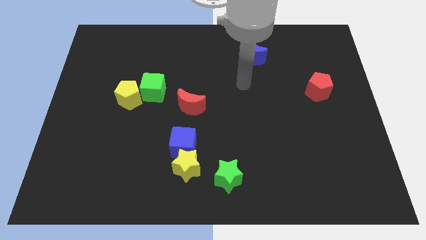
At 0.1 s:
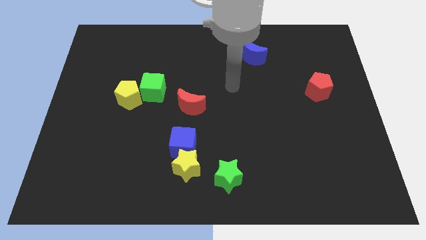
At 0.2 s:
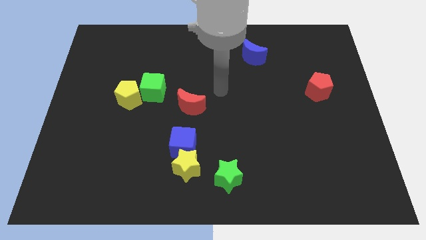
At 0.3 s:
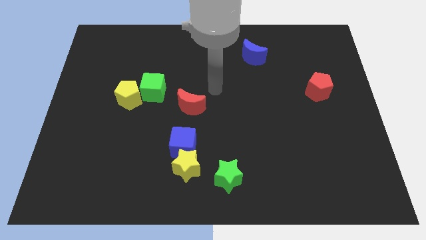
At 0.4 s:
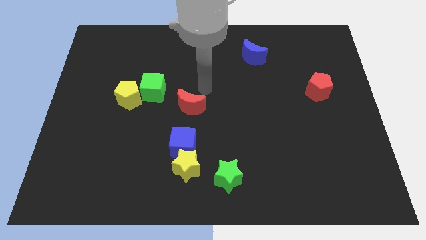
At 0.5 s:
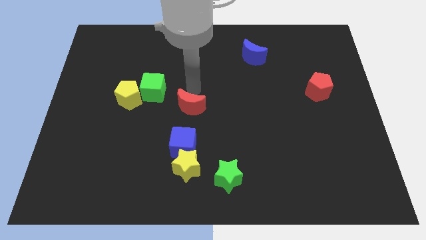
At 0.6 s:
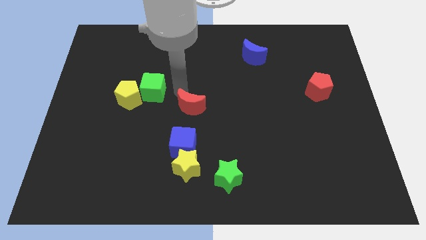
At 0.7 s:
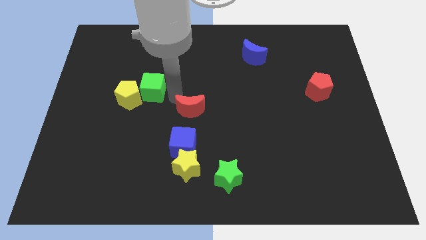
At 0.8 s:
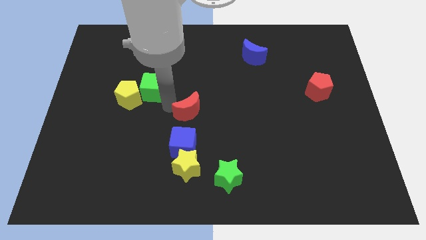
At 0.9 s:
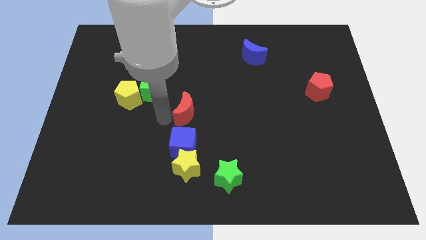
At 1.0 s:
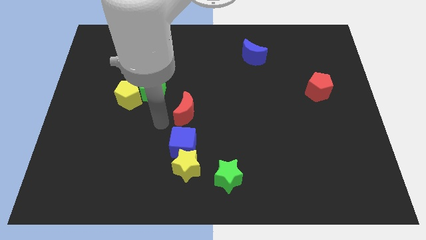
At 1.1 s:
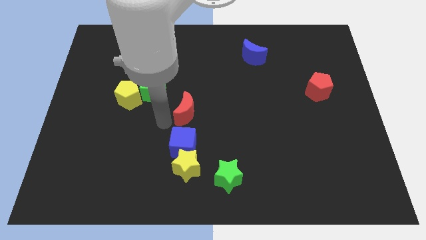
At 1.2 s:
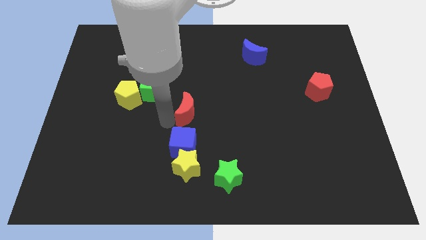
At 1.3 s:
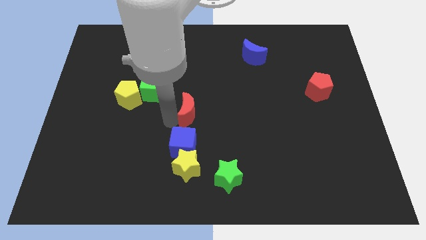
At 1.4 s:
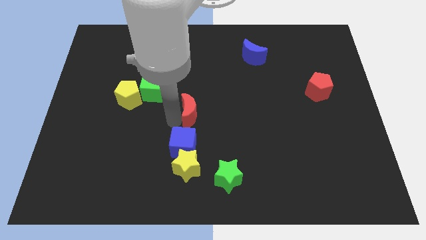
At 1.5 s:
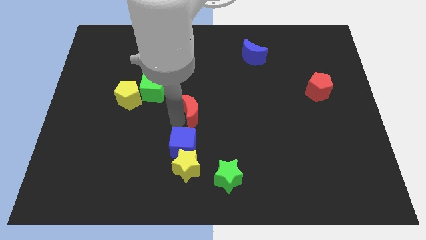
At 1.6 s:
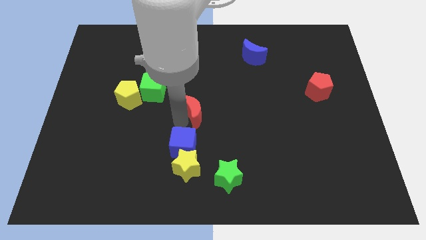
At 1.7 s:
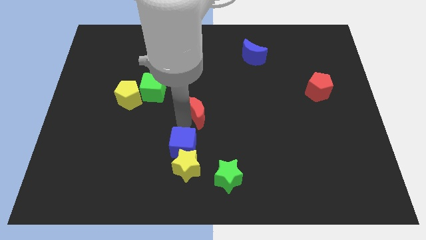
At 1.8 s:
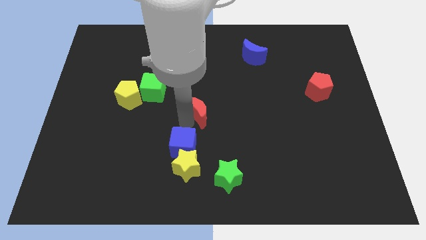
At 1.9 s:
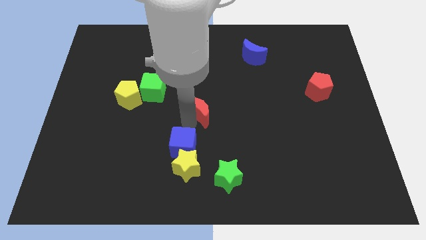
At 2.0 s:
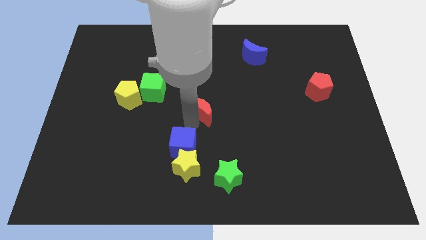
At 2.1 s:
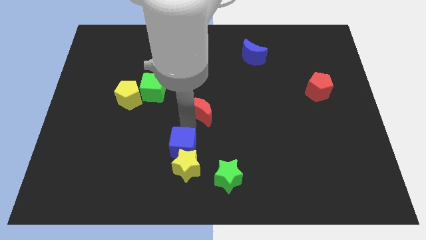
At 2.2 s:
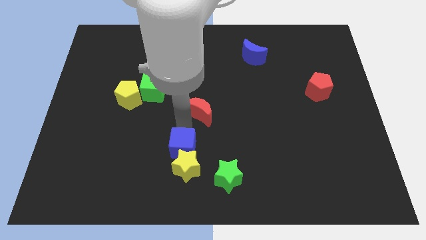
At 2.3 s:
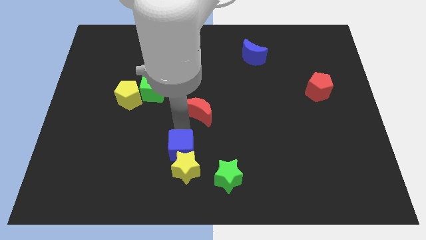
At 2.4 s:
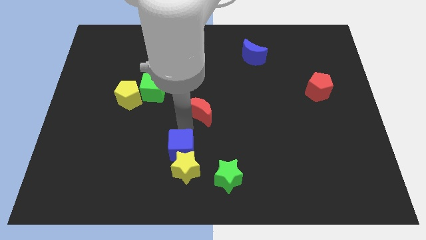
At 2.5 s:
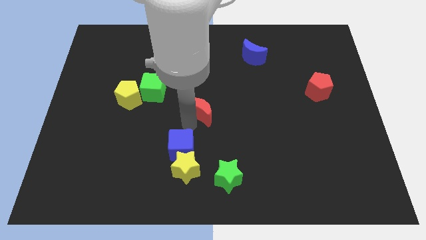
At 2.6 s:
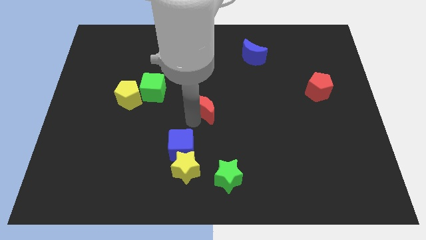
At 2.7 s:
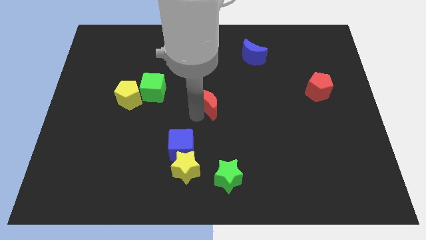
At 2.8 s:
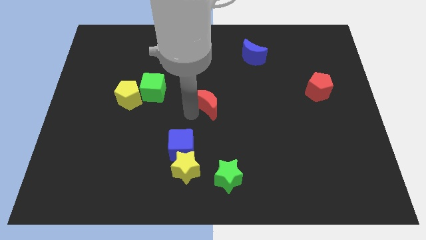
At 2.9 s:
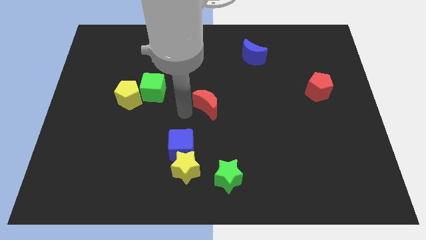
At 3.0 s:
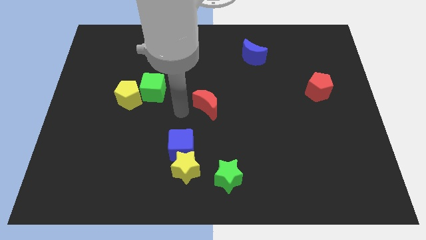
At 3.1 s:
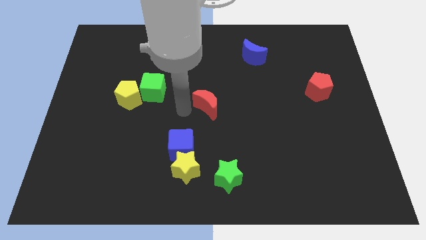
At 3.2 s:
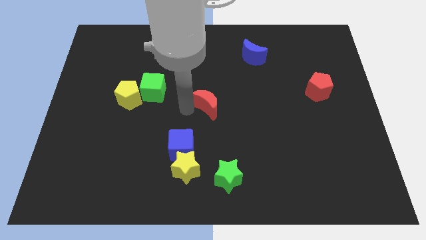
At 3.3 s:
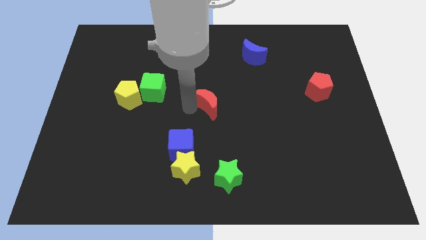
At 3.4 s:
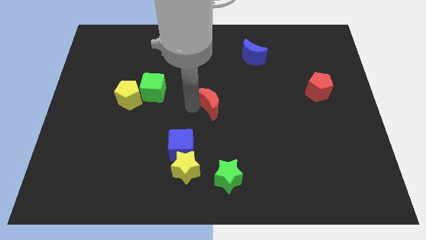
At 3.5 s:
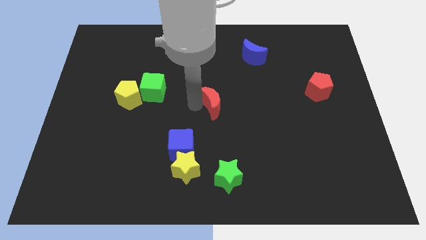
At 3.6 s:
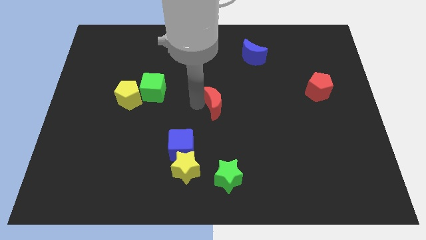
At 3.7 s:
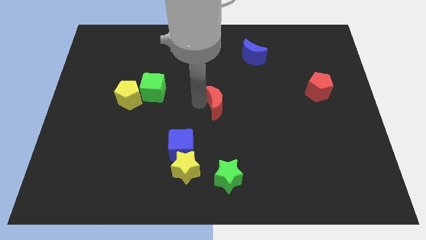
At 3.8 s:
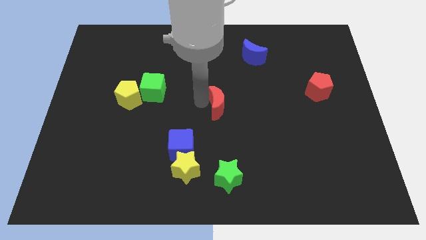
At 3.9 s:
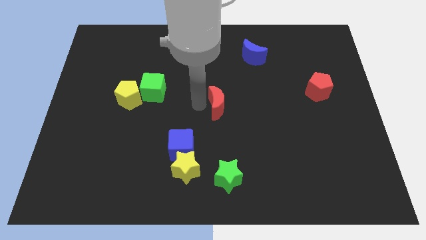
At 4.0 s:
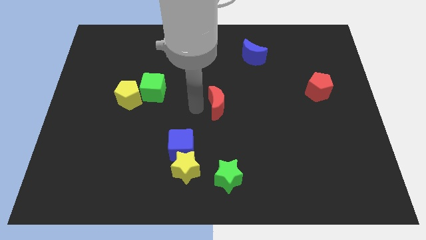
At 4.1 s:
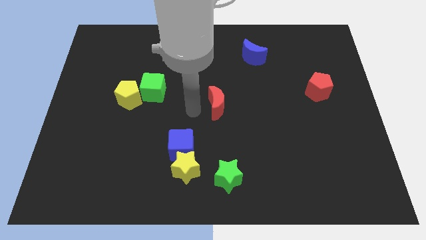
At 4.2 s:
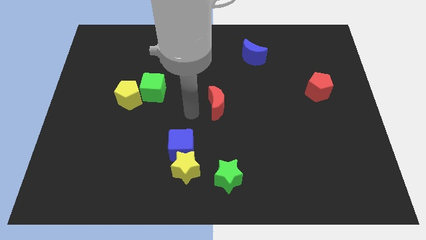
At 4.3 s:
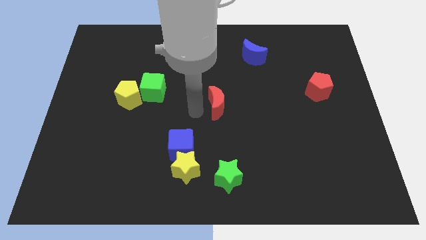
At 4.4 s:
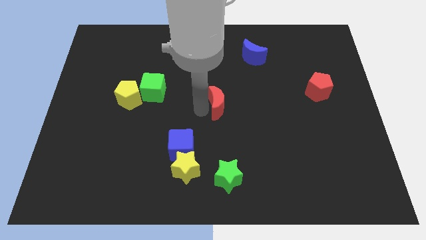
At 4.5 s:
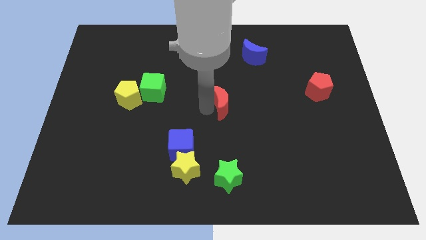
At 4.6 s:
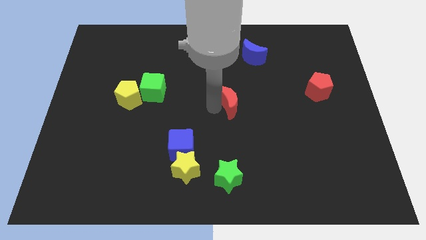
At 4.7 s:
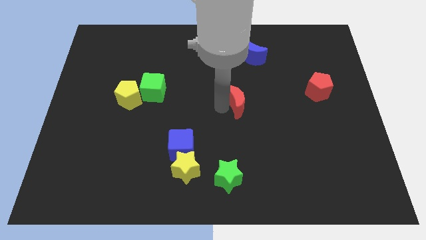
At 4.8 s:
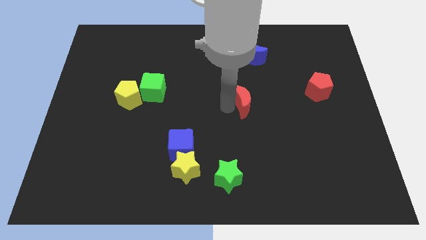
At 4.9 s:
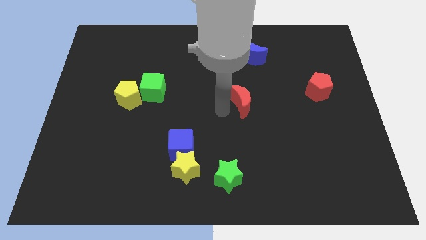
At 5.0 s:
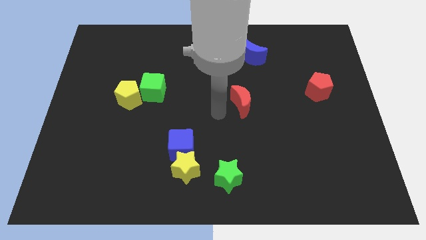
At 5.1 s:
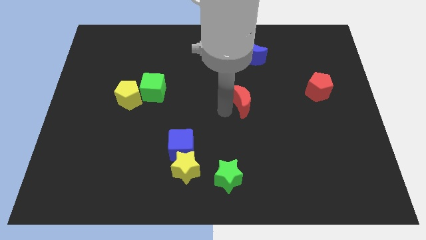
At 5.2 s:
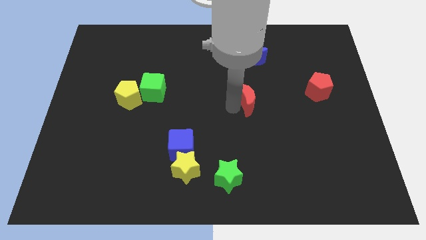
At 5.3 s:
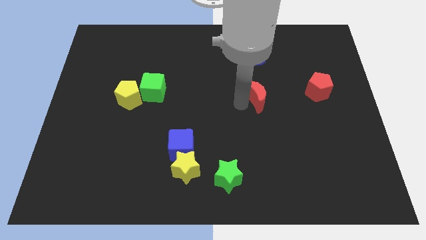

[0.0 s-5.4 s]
push the red moon left of the red pentagon

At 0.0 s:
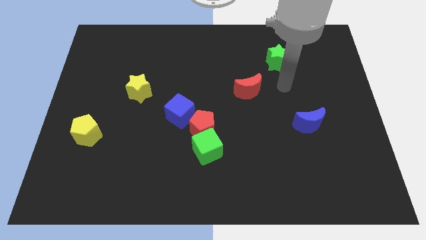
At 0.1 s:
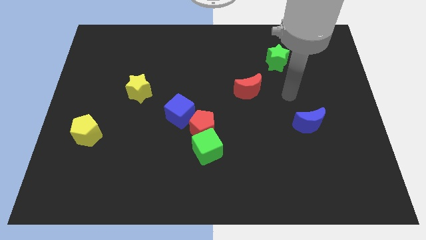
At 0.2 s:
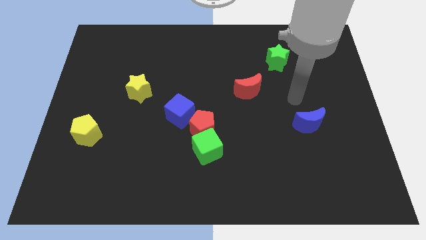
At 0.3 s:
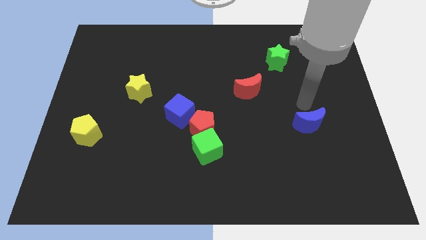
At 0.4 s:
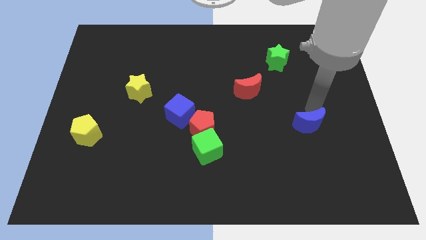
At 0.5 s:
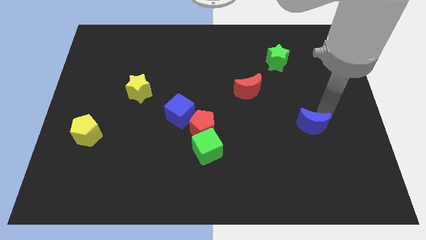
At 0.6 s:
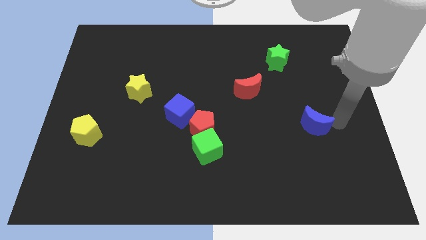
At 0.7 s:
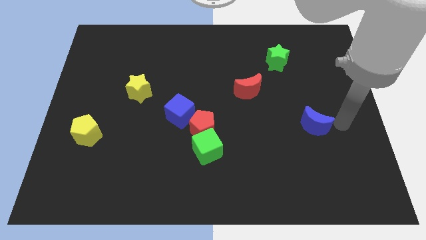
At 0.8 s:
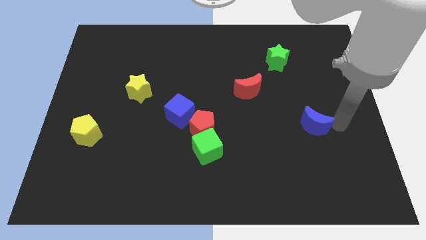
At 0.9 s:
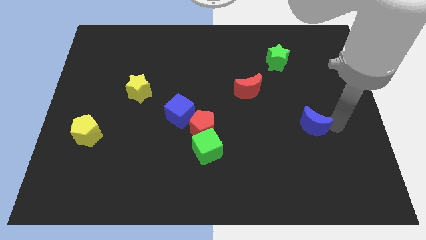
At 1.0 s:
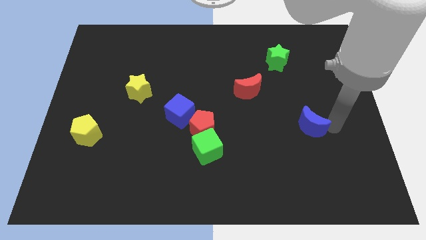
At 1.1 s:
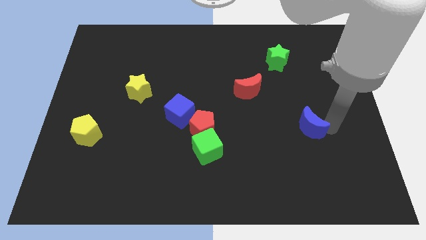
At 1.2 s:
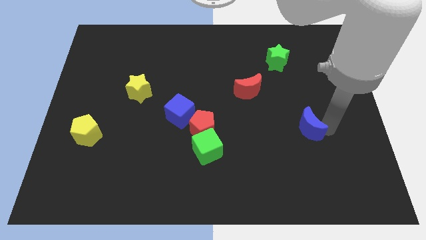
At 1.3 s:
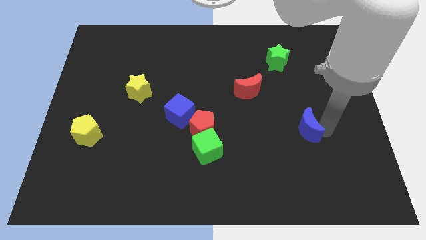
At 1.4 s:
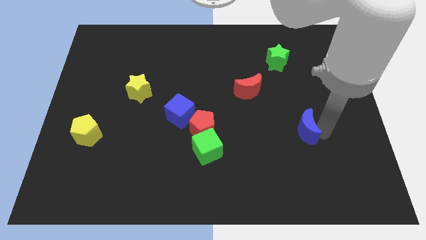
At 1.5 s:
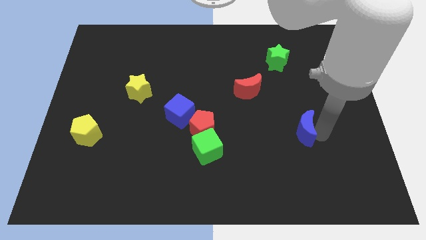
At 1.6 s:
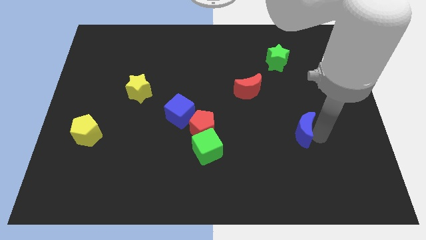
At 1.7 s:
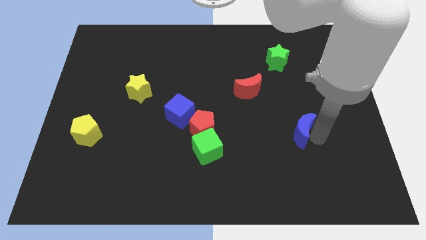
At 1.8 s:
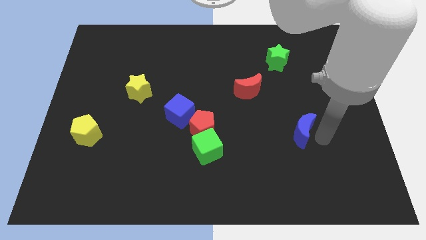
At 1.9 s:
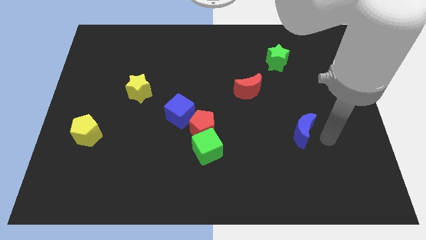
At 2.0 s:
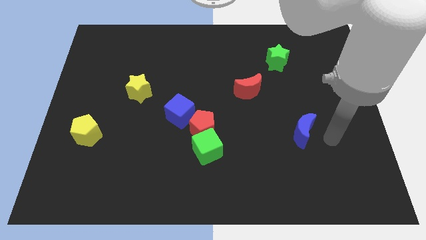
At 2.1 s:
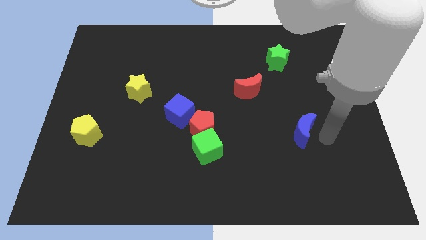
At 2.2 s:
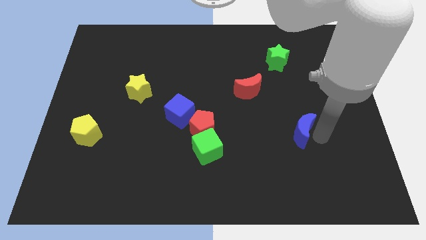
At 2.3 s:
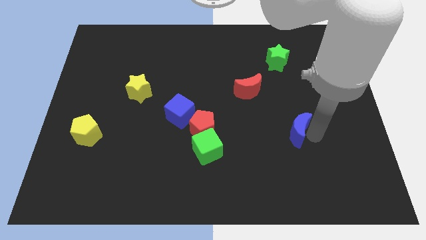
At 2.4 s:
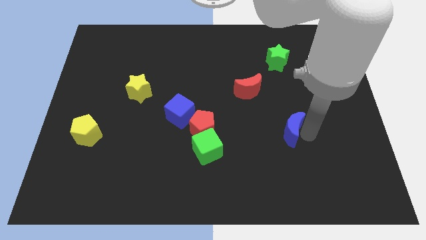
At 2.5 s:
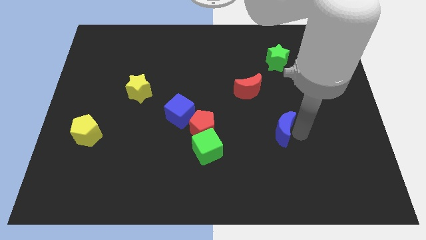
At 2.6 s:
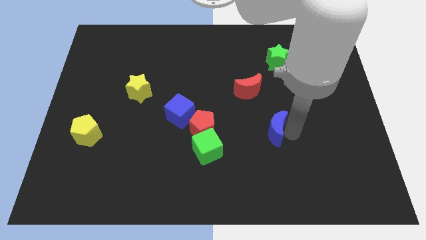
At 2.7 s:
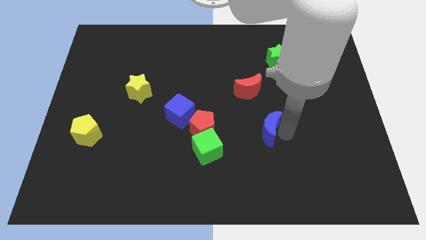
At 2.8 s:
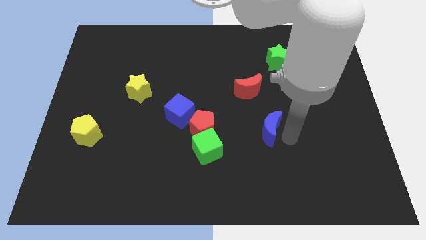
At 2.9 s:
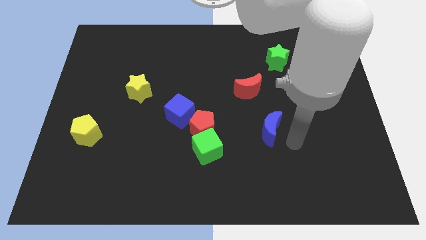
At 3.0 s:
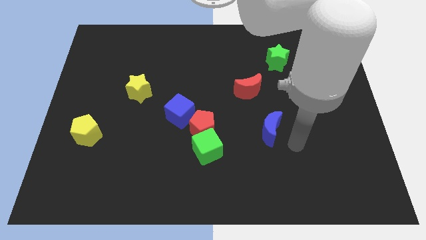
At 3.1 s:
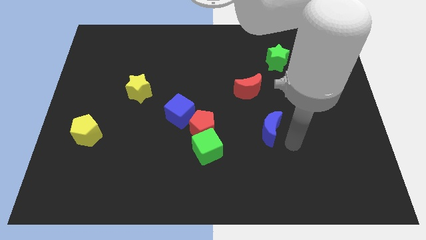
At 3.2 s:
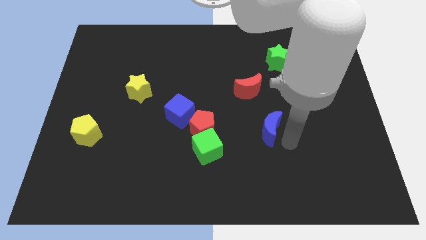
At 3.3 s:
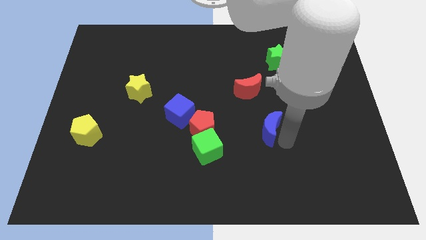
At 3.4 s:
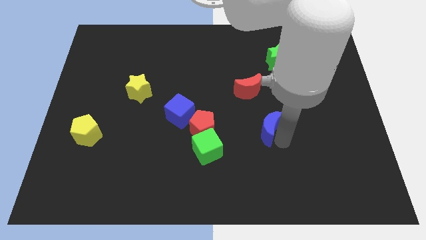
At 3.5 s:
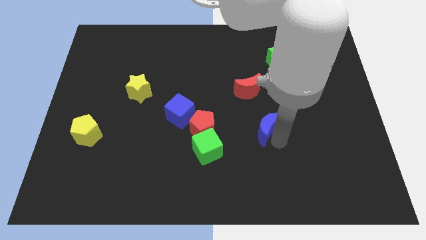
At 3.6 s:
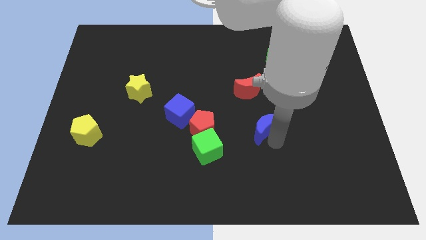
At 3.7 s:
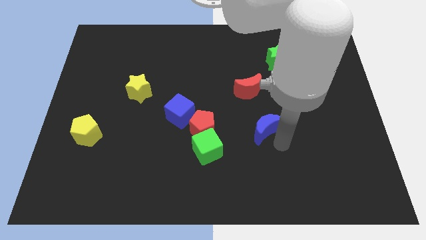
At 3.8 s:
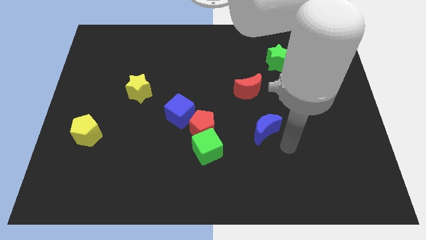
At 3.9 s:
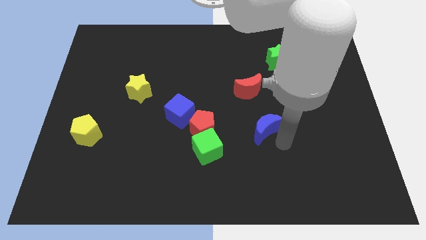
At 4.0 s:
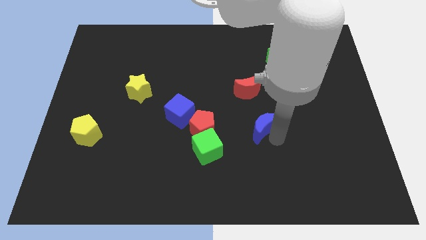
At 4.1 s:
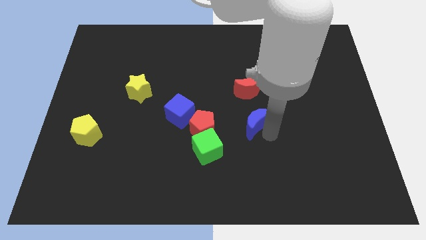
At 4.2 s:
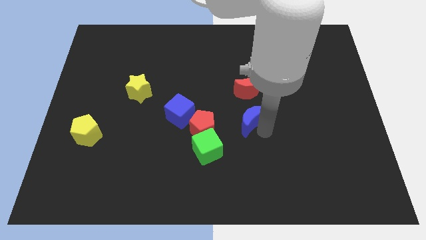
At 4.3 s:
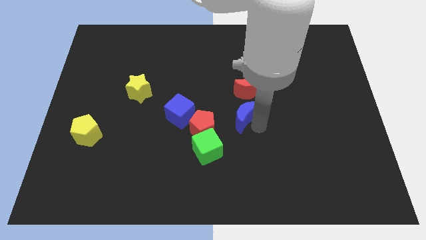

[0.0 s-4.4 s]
move the blue moon to the right side of the blue cube
